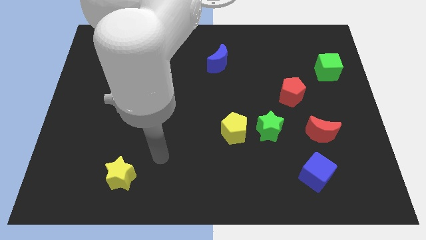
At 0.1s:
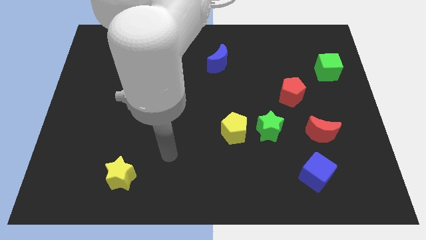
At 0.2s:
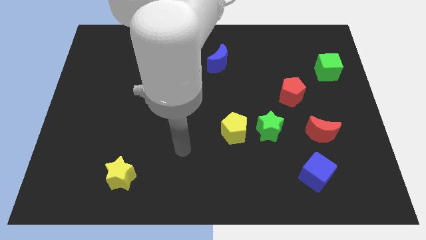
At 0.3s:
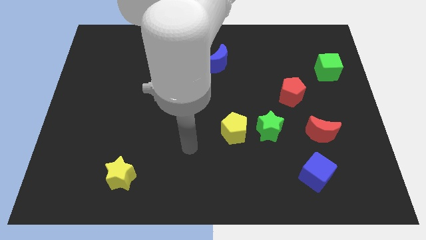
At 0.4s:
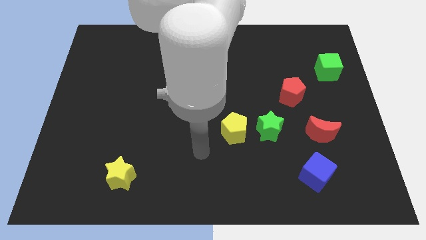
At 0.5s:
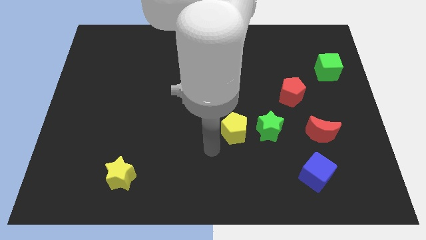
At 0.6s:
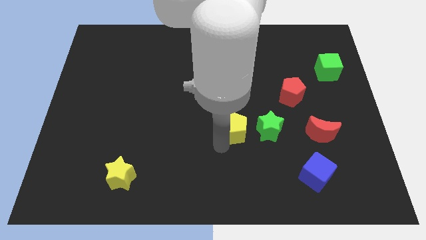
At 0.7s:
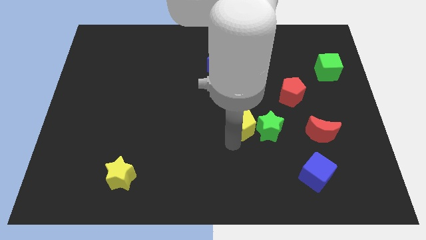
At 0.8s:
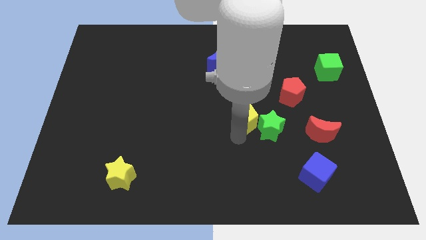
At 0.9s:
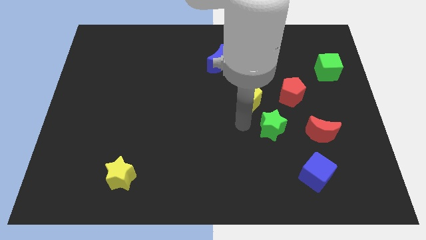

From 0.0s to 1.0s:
move the green star away from the yellow pentagon

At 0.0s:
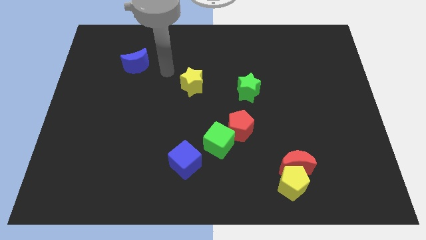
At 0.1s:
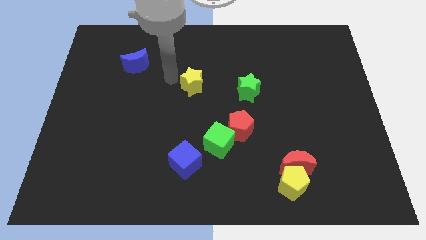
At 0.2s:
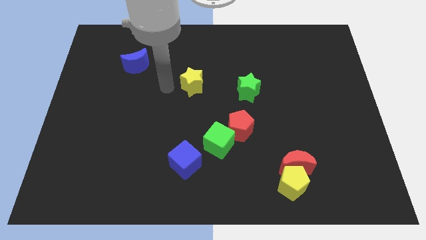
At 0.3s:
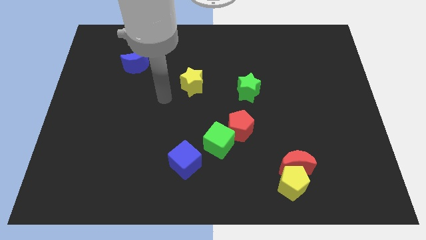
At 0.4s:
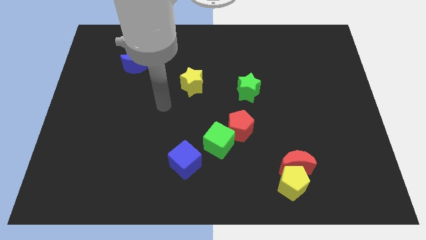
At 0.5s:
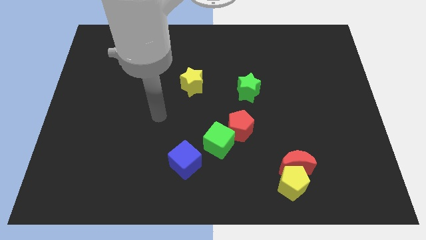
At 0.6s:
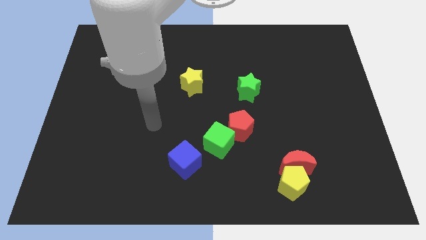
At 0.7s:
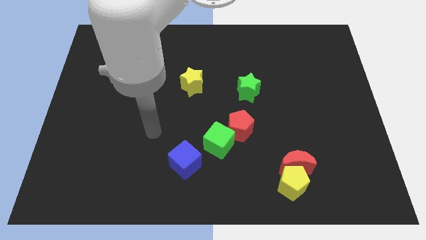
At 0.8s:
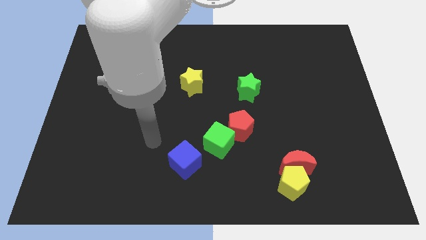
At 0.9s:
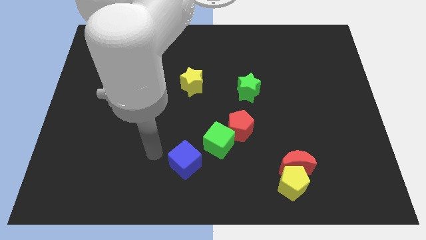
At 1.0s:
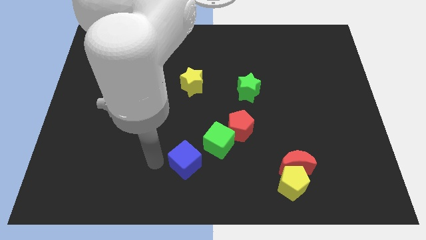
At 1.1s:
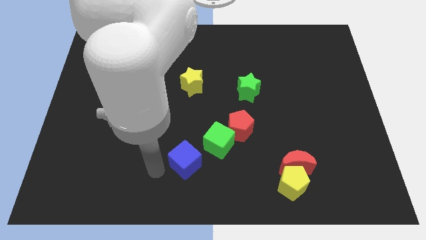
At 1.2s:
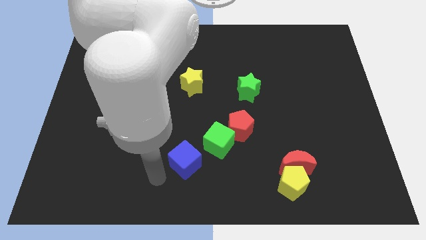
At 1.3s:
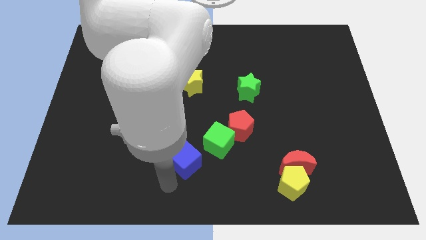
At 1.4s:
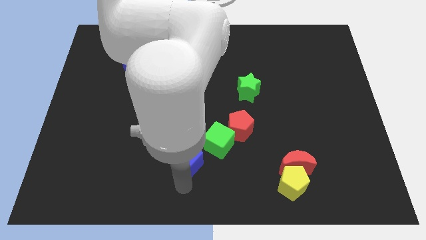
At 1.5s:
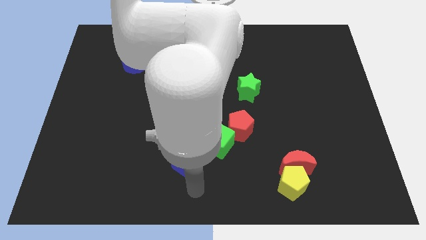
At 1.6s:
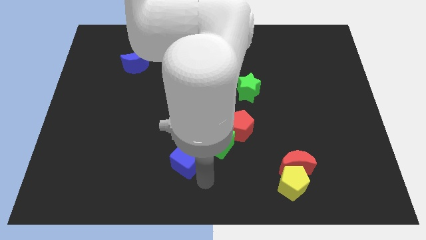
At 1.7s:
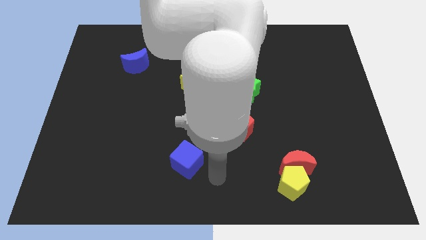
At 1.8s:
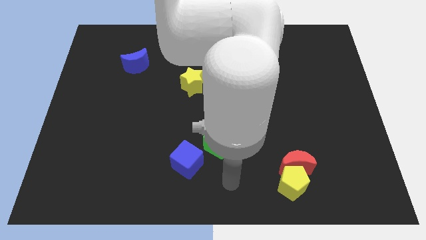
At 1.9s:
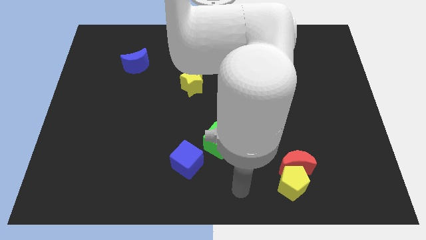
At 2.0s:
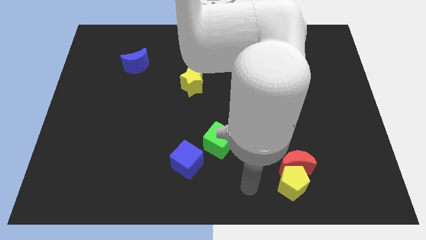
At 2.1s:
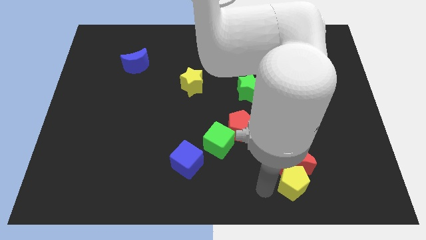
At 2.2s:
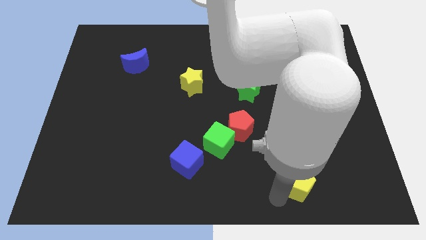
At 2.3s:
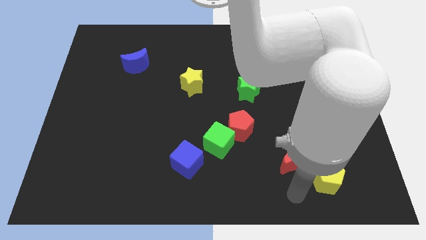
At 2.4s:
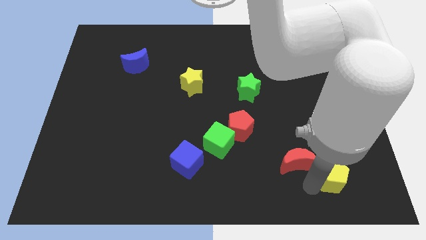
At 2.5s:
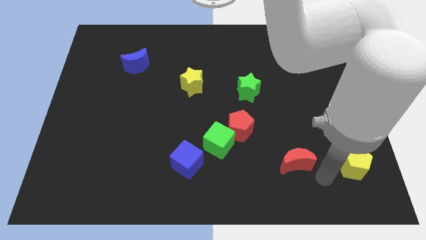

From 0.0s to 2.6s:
move the red moon away from the yellow pentagon

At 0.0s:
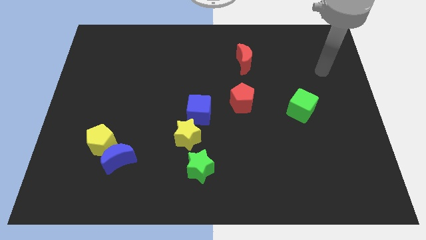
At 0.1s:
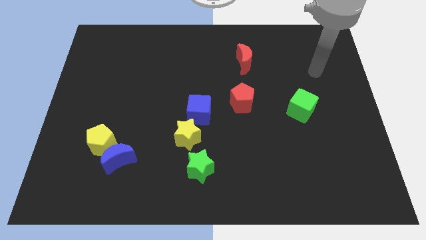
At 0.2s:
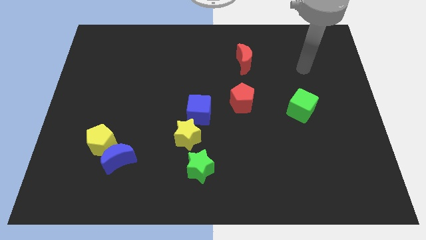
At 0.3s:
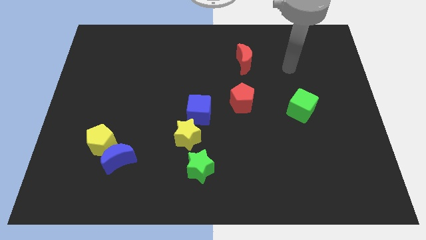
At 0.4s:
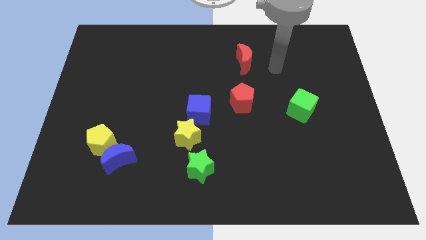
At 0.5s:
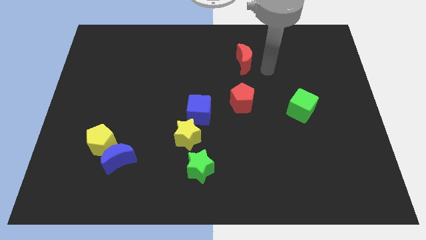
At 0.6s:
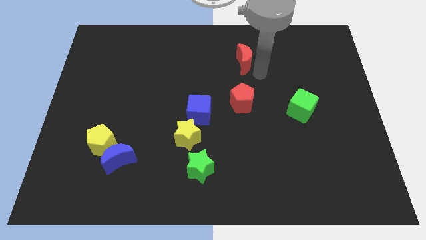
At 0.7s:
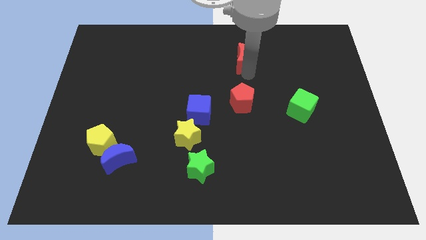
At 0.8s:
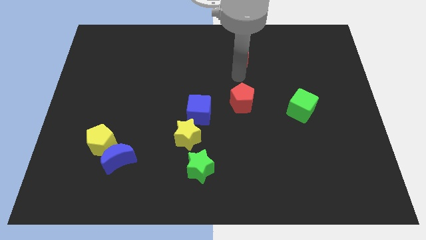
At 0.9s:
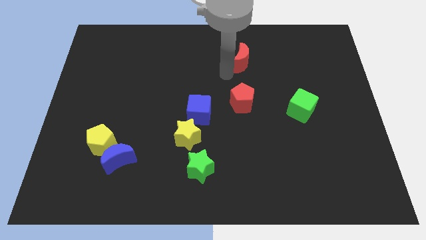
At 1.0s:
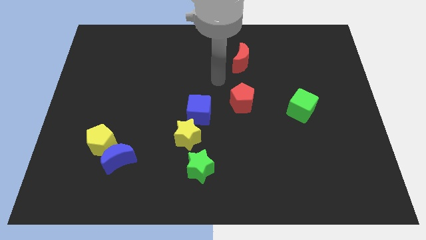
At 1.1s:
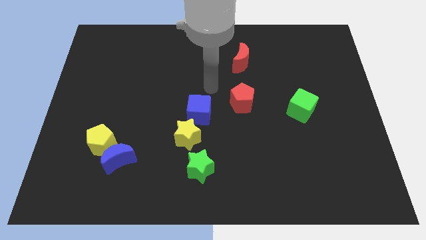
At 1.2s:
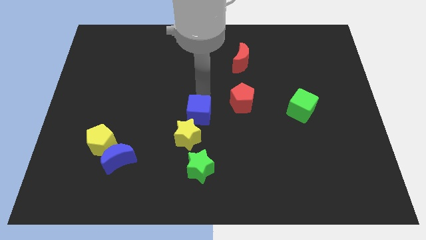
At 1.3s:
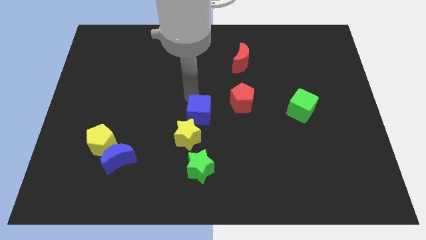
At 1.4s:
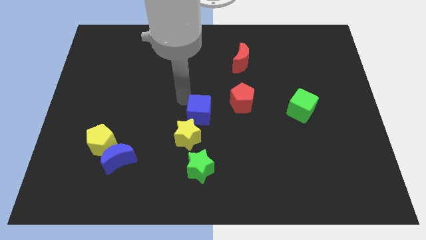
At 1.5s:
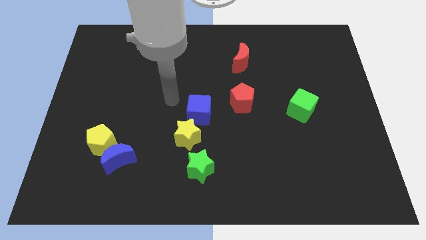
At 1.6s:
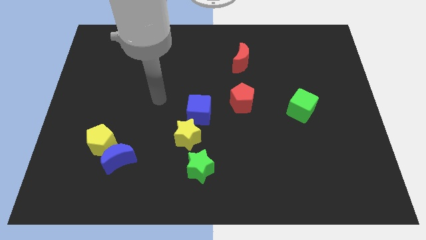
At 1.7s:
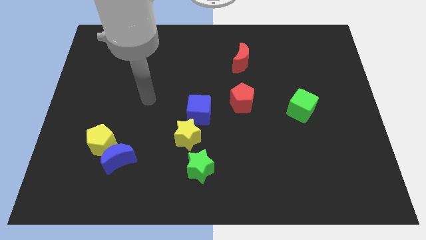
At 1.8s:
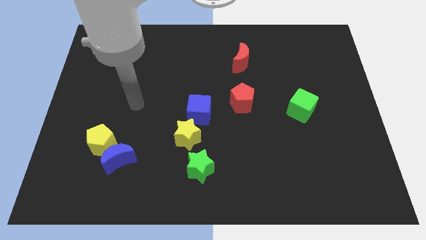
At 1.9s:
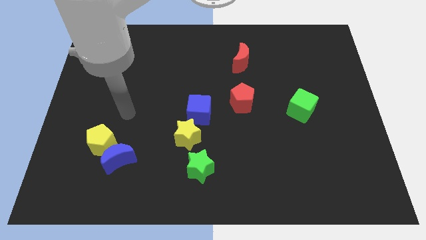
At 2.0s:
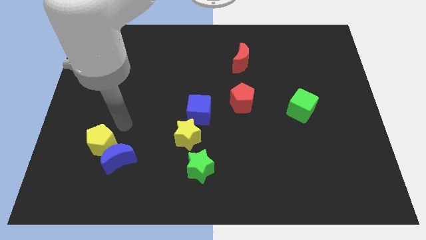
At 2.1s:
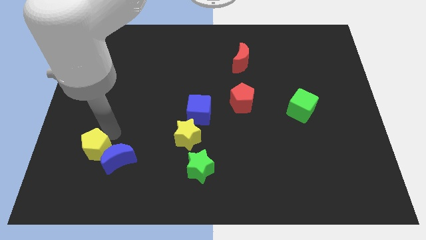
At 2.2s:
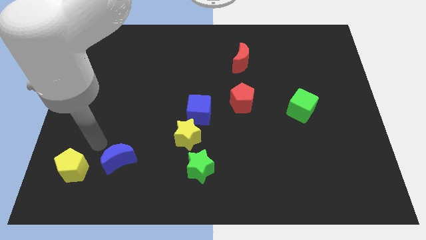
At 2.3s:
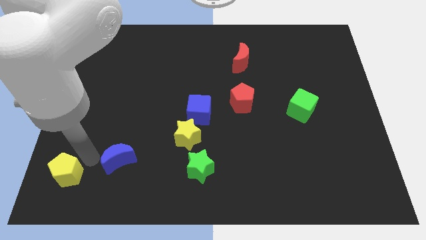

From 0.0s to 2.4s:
pull the blue moon apart from the yellow pentagon

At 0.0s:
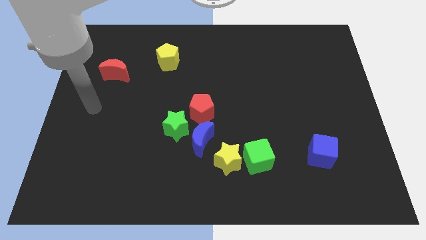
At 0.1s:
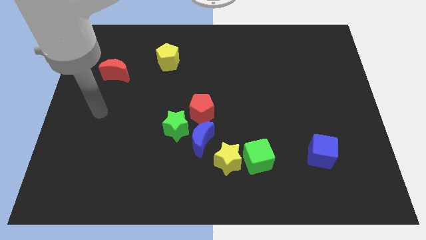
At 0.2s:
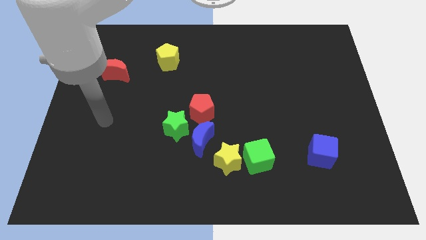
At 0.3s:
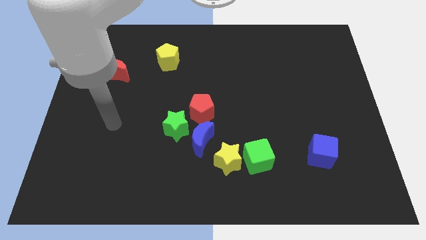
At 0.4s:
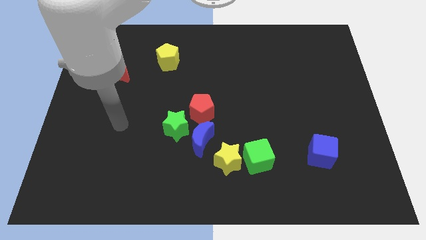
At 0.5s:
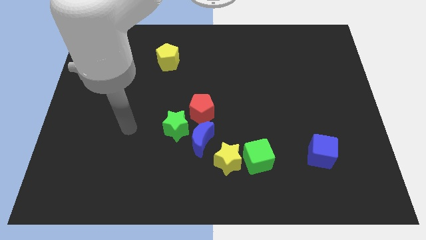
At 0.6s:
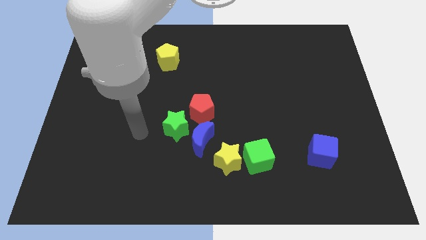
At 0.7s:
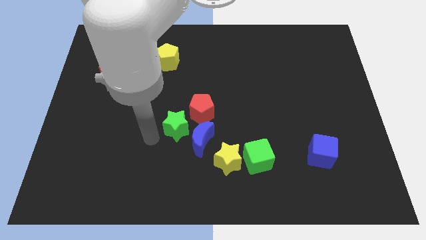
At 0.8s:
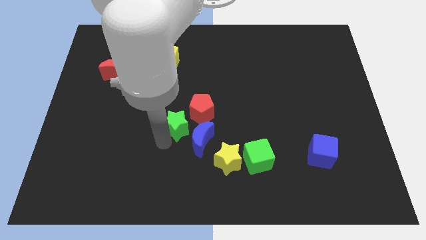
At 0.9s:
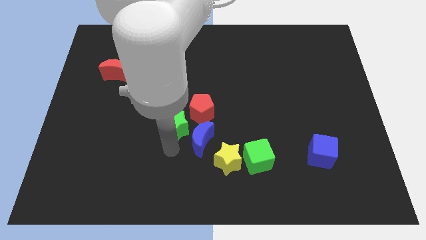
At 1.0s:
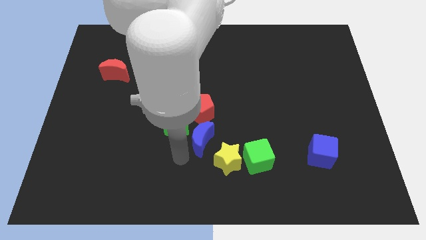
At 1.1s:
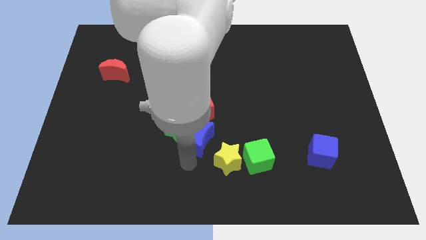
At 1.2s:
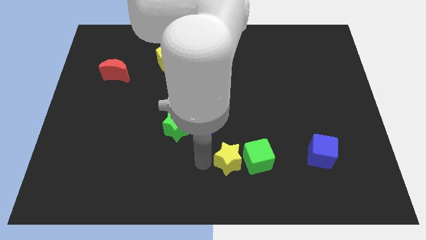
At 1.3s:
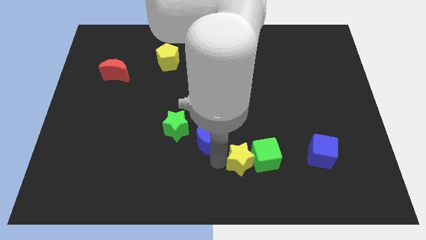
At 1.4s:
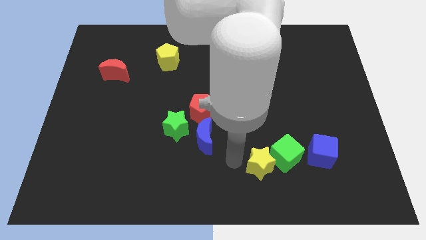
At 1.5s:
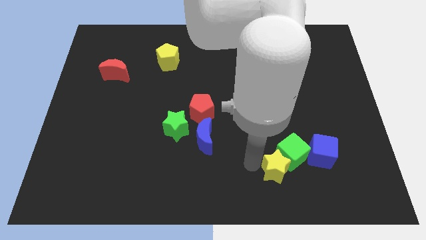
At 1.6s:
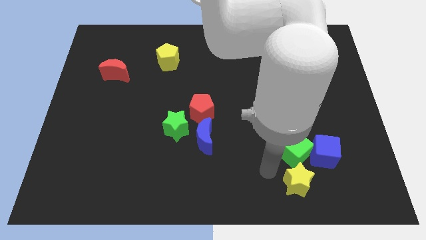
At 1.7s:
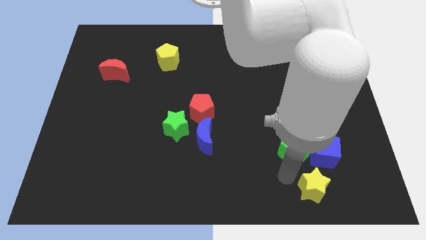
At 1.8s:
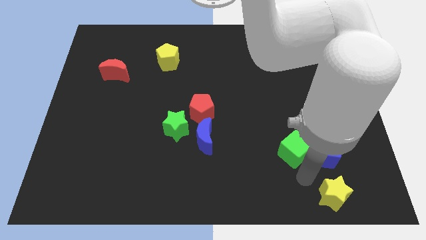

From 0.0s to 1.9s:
pull the green cube apart from the yellow star

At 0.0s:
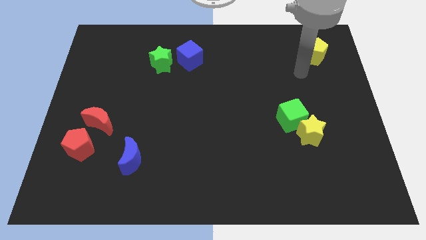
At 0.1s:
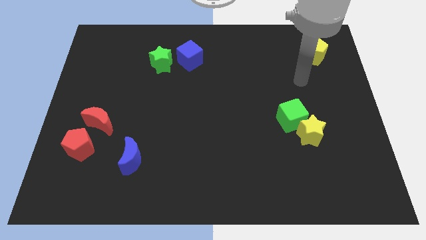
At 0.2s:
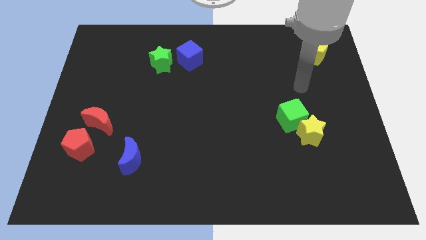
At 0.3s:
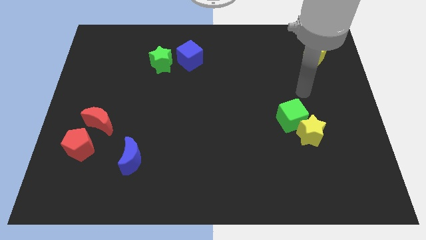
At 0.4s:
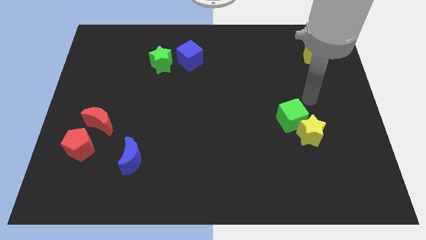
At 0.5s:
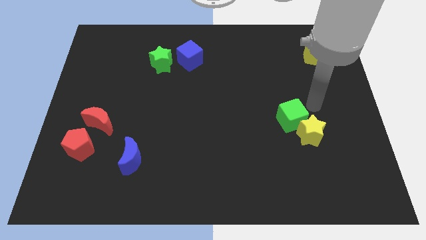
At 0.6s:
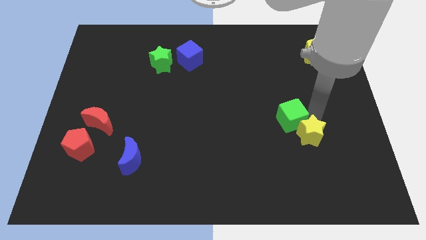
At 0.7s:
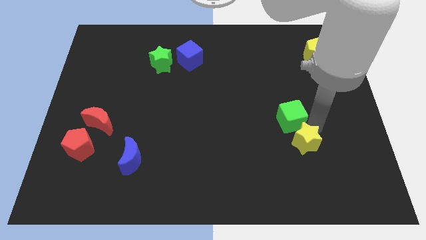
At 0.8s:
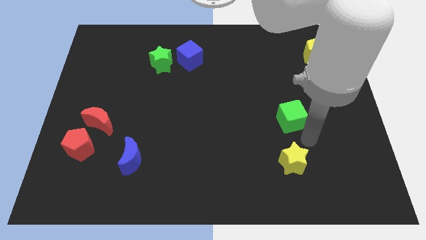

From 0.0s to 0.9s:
move the green cube away from the yellow star

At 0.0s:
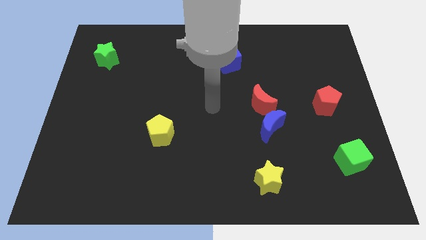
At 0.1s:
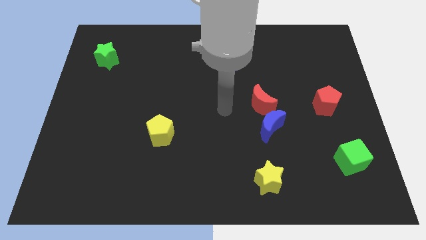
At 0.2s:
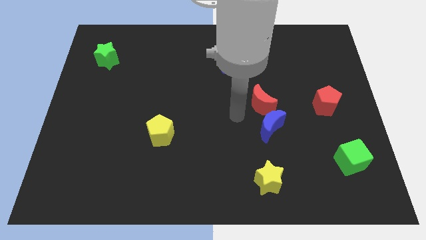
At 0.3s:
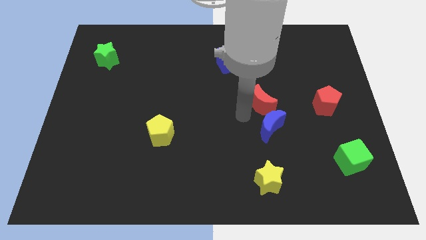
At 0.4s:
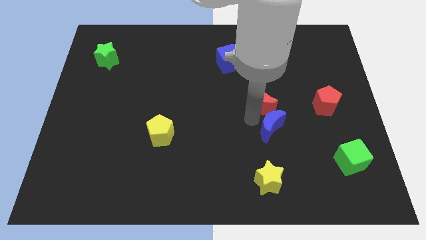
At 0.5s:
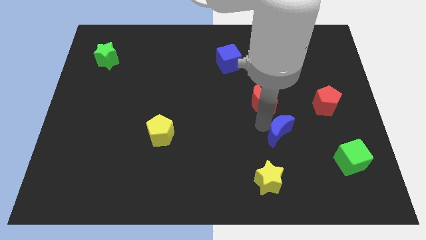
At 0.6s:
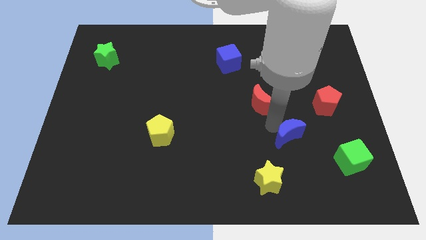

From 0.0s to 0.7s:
move the red moon away from the blue moon
